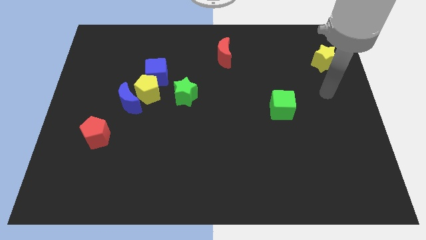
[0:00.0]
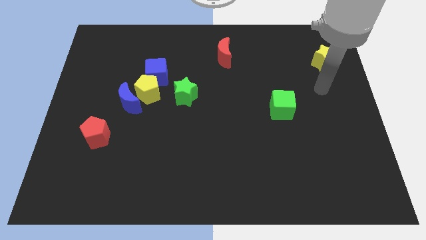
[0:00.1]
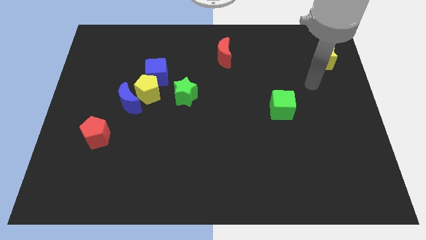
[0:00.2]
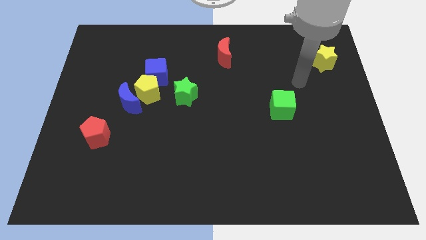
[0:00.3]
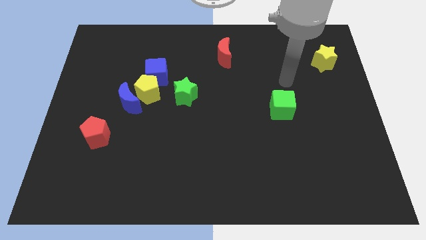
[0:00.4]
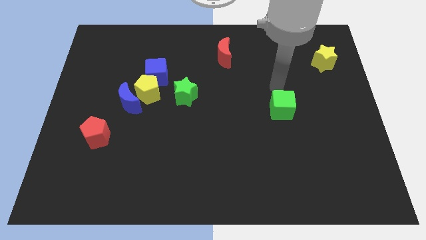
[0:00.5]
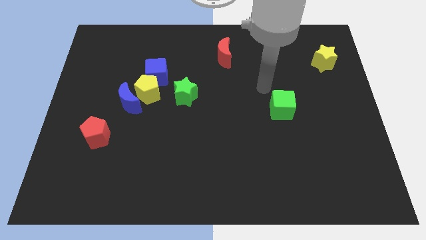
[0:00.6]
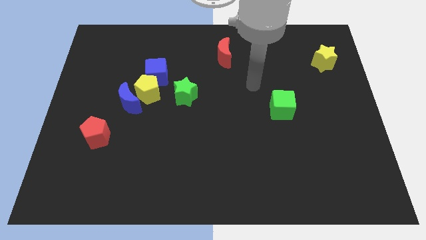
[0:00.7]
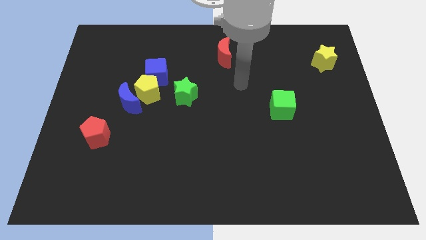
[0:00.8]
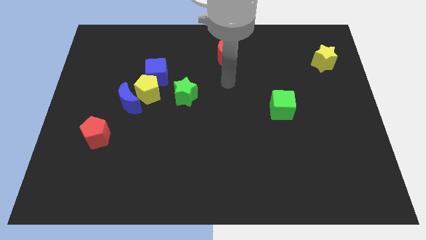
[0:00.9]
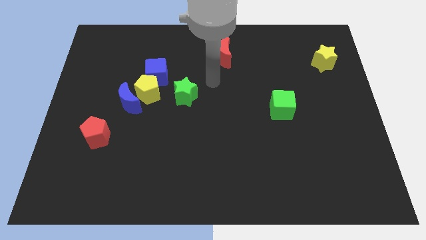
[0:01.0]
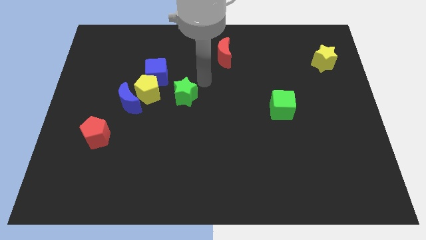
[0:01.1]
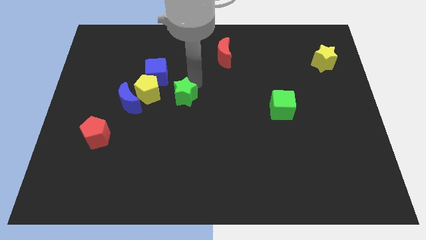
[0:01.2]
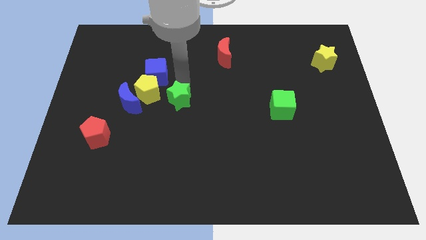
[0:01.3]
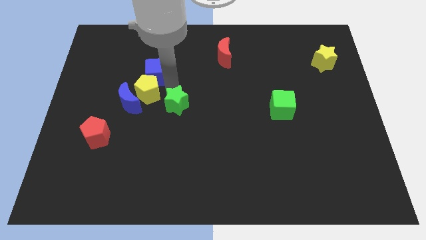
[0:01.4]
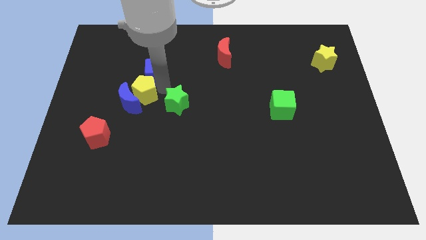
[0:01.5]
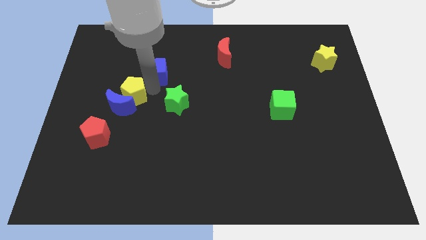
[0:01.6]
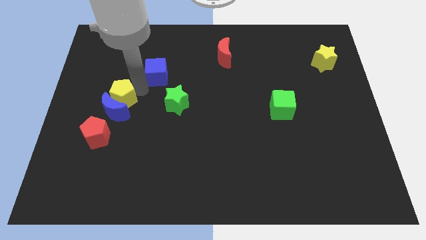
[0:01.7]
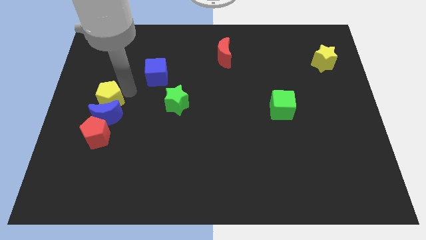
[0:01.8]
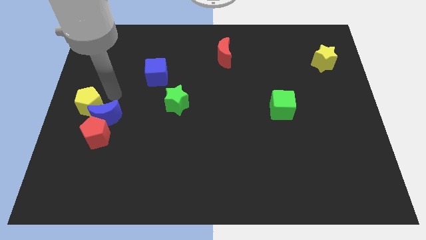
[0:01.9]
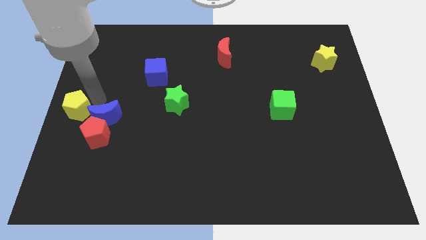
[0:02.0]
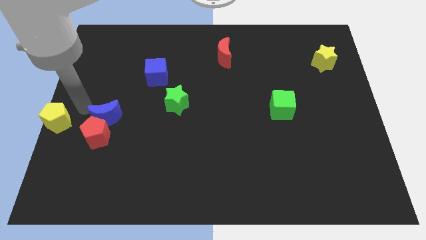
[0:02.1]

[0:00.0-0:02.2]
move the blue moon away from the yellow pentagon

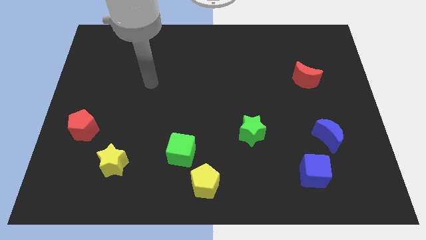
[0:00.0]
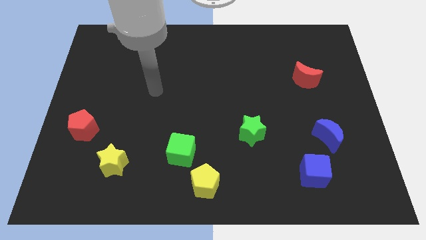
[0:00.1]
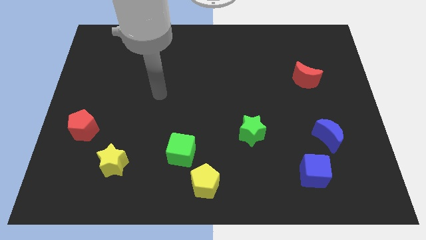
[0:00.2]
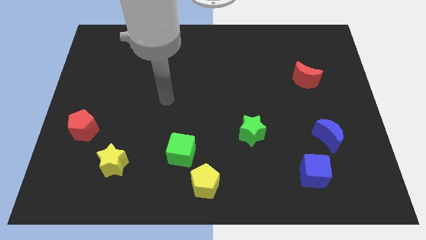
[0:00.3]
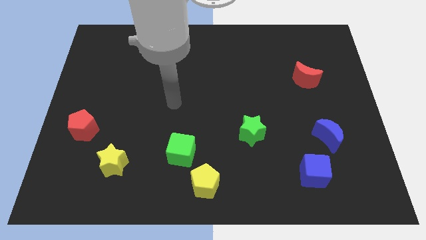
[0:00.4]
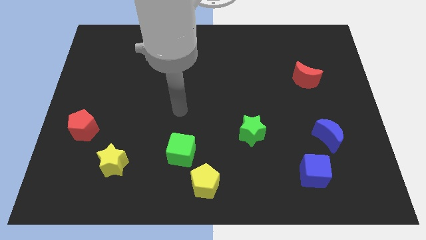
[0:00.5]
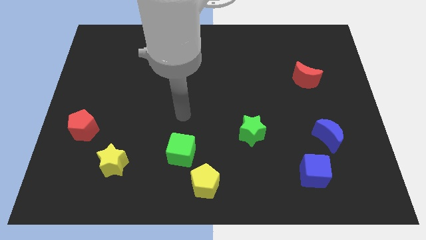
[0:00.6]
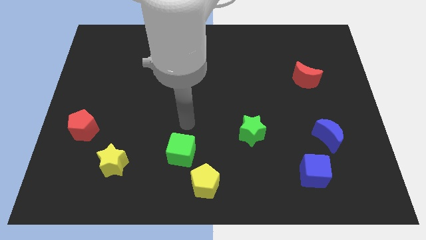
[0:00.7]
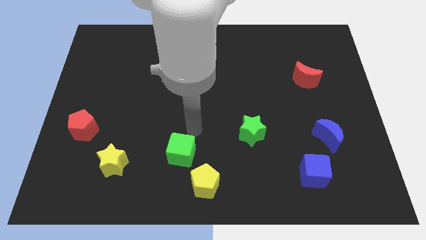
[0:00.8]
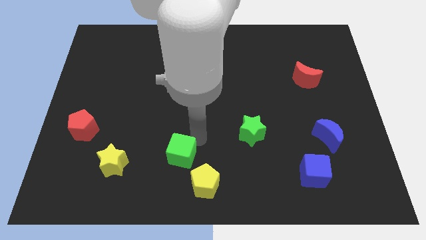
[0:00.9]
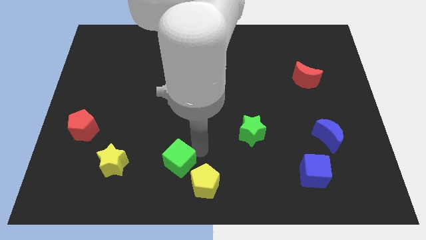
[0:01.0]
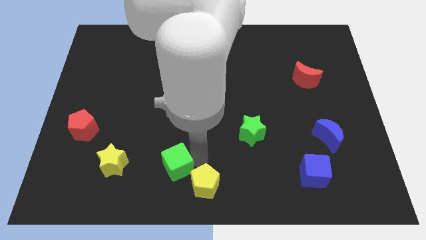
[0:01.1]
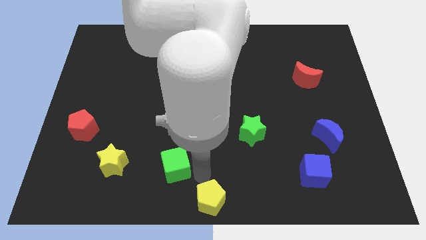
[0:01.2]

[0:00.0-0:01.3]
move the green cube away from the yellow pentagon

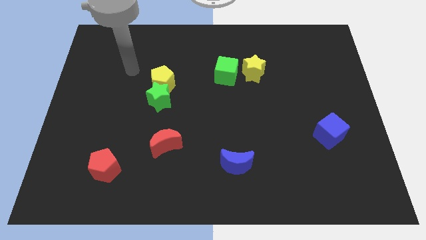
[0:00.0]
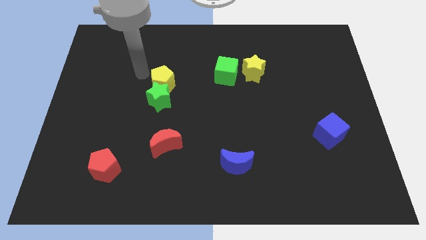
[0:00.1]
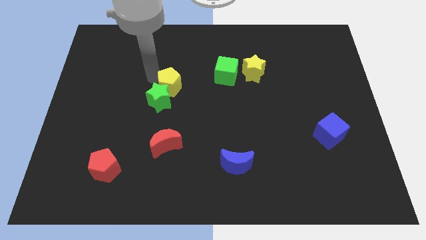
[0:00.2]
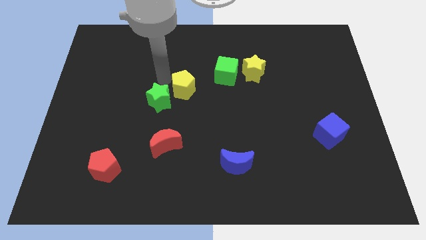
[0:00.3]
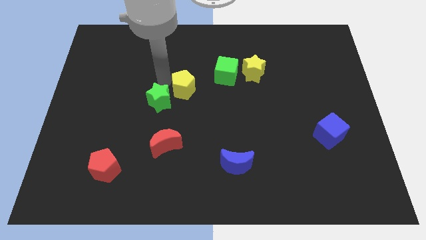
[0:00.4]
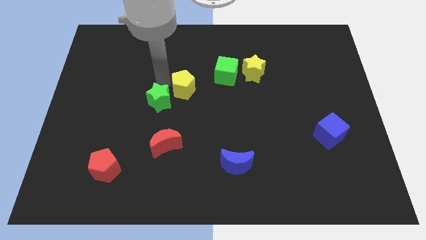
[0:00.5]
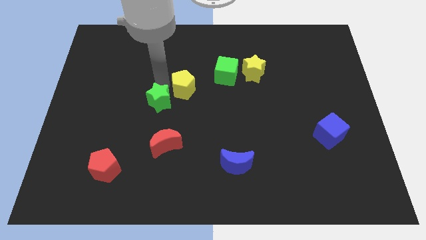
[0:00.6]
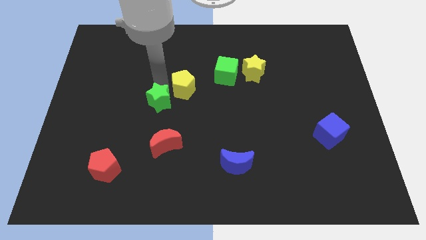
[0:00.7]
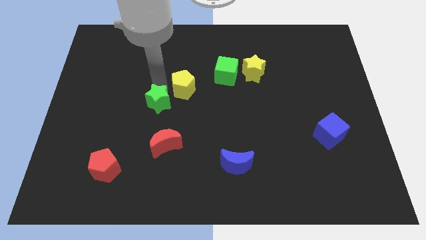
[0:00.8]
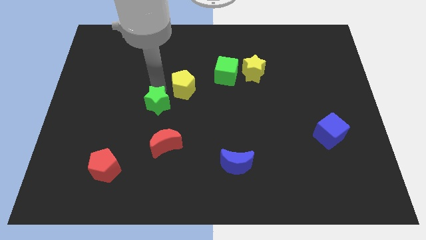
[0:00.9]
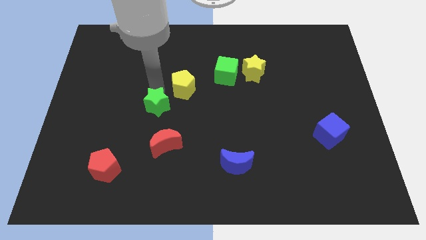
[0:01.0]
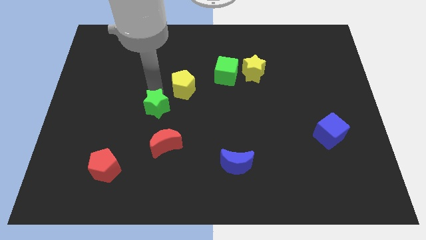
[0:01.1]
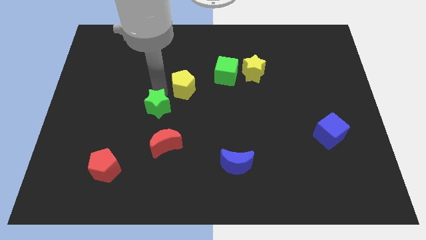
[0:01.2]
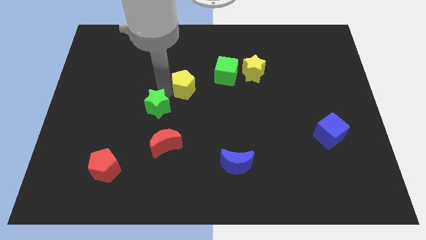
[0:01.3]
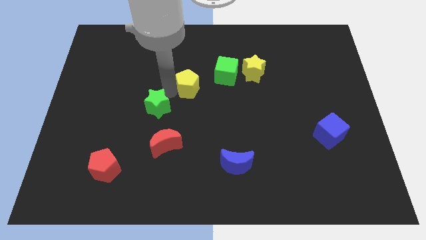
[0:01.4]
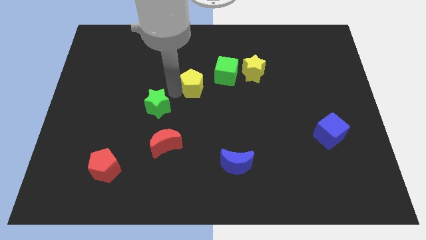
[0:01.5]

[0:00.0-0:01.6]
separate the green star from the yellow pentagon

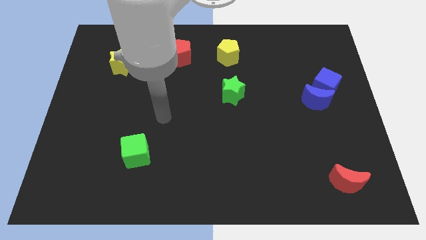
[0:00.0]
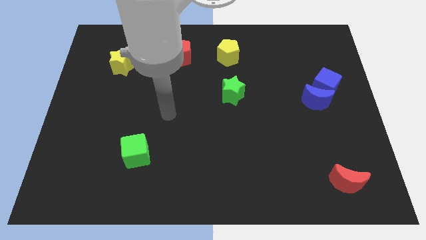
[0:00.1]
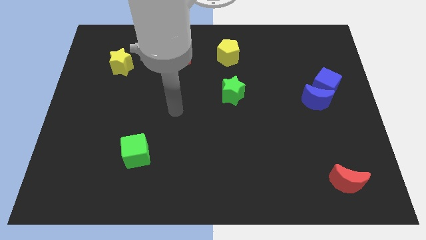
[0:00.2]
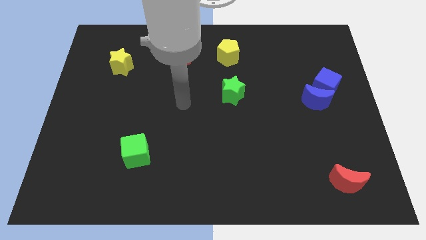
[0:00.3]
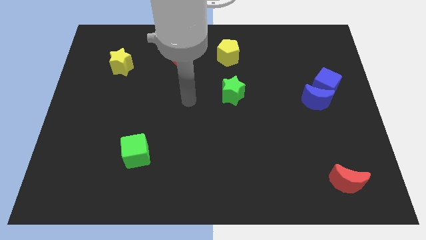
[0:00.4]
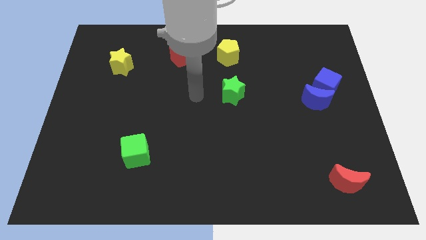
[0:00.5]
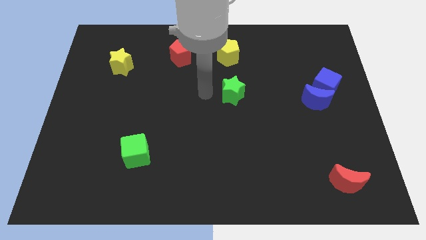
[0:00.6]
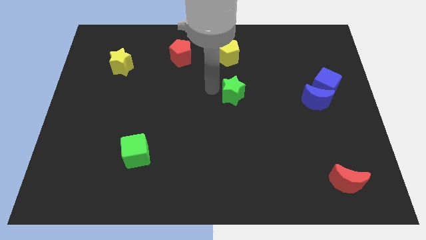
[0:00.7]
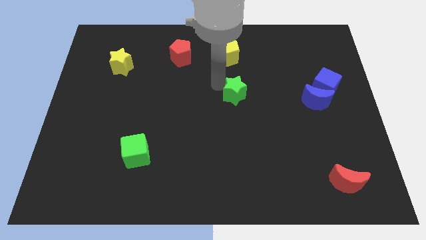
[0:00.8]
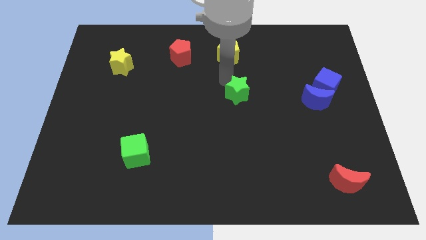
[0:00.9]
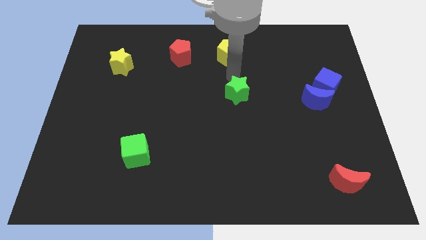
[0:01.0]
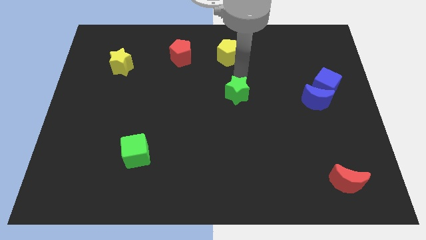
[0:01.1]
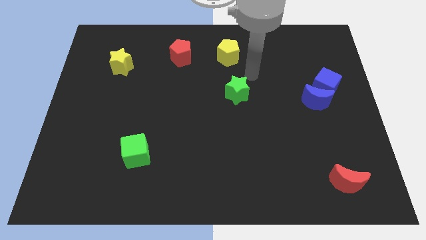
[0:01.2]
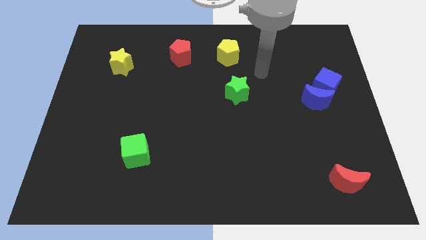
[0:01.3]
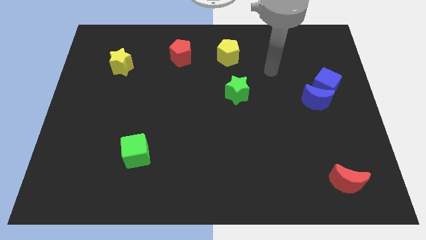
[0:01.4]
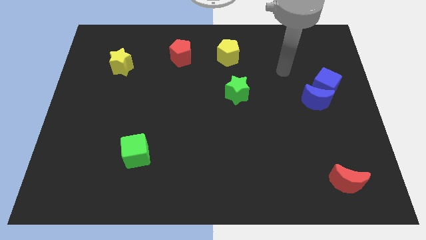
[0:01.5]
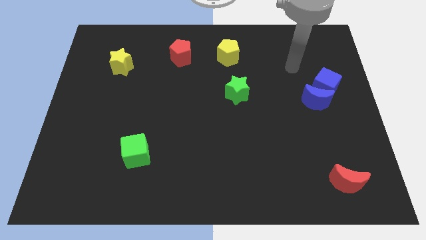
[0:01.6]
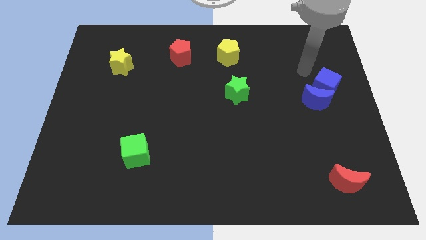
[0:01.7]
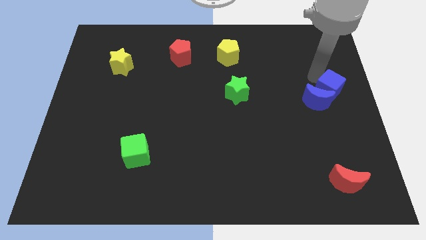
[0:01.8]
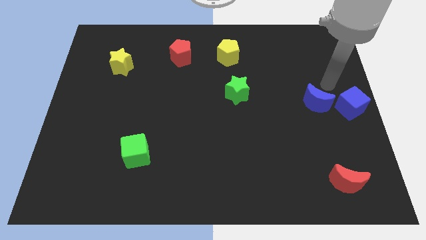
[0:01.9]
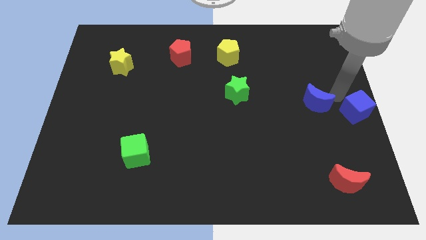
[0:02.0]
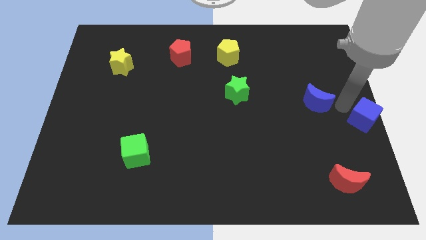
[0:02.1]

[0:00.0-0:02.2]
separate the blue moon from the blue cube

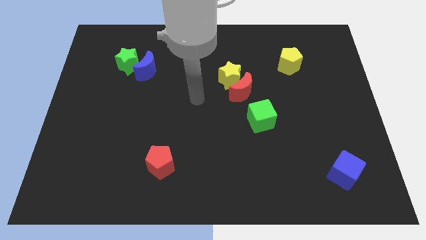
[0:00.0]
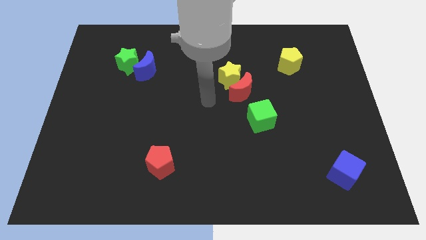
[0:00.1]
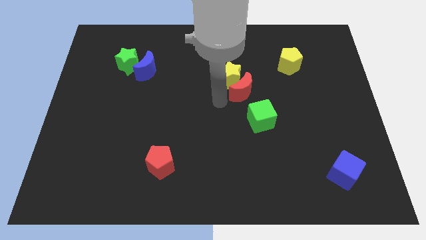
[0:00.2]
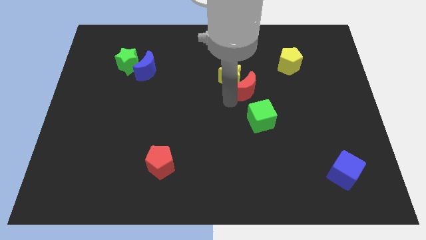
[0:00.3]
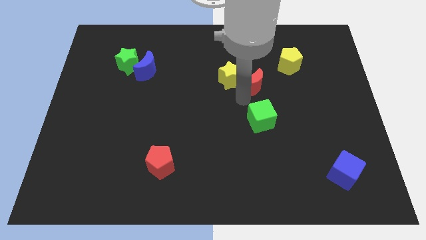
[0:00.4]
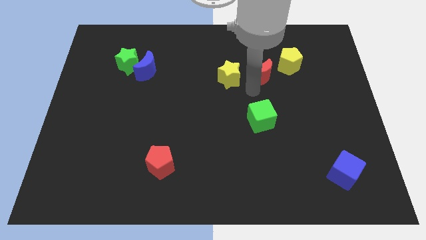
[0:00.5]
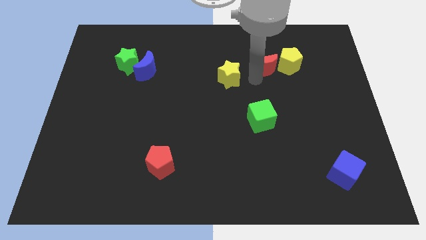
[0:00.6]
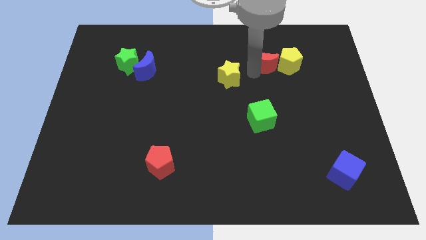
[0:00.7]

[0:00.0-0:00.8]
separate the yellow star from the red moon

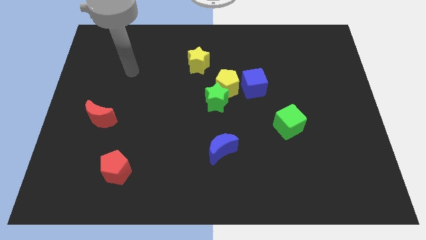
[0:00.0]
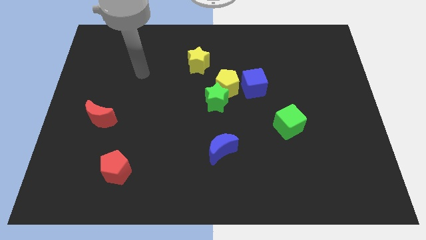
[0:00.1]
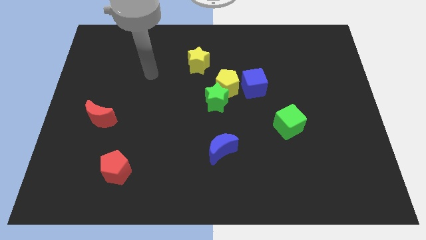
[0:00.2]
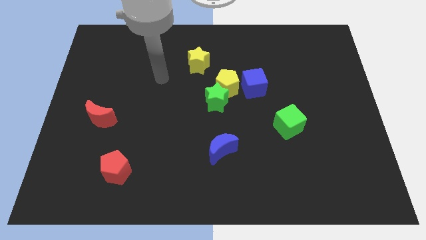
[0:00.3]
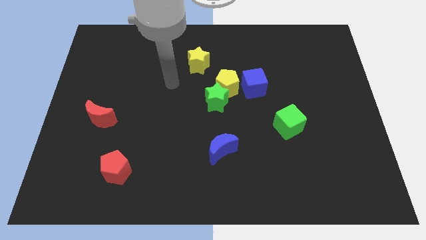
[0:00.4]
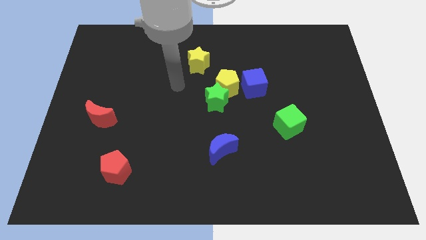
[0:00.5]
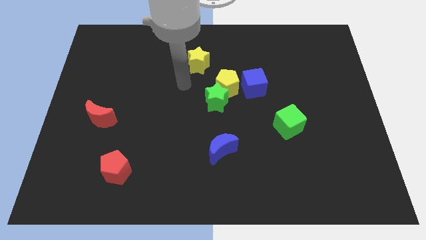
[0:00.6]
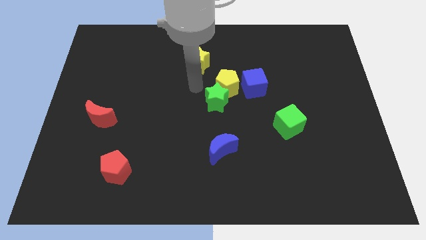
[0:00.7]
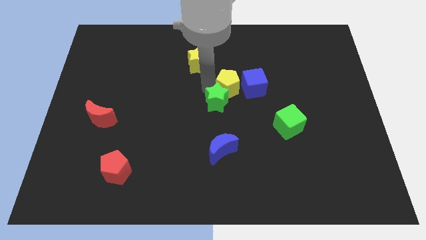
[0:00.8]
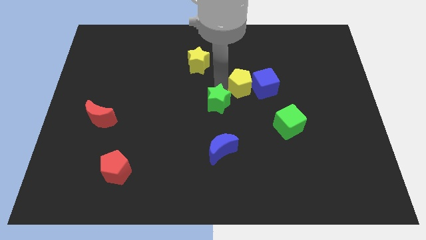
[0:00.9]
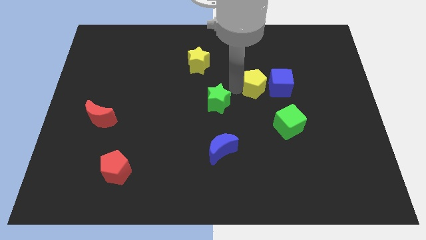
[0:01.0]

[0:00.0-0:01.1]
move the green star away from the yellow pentagon
